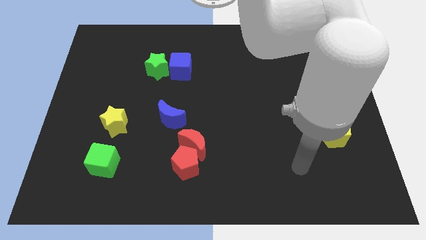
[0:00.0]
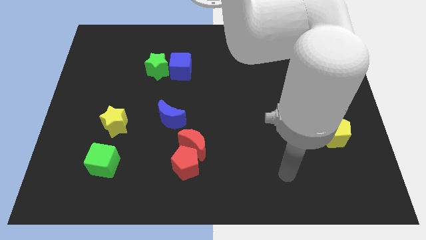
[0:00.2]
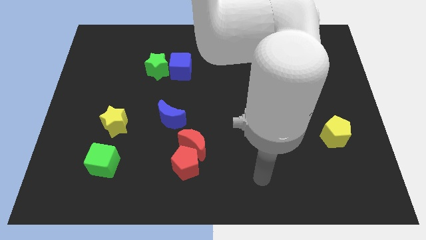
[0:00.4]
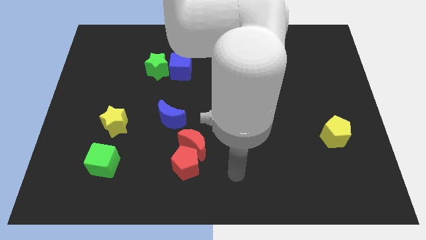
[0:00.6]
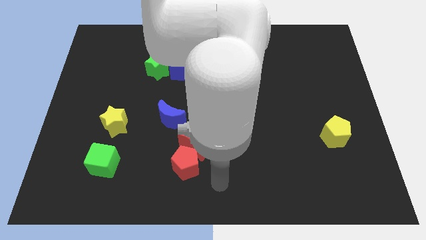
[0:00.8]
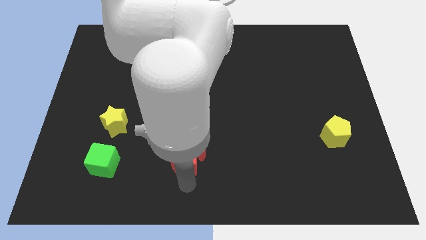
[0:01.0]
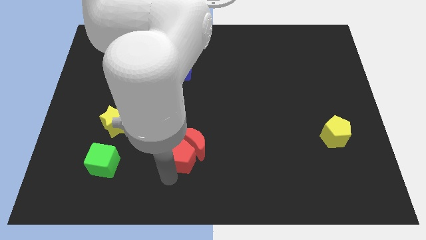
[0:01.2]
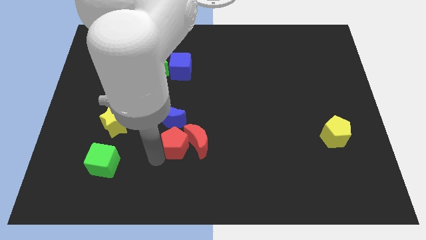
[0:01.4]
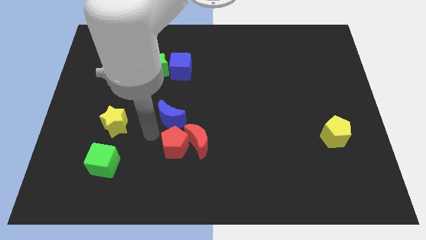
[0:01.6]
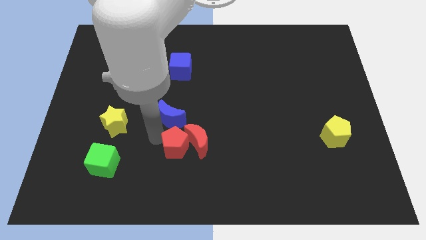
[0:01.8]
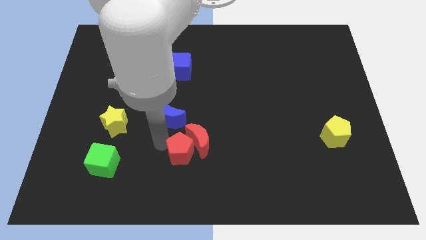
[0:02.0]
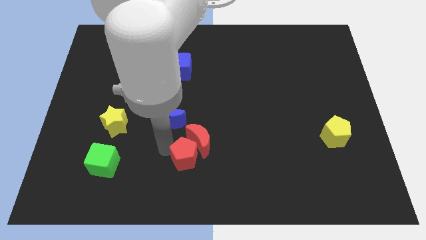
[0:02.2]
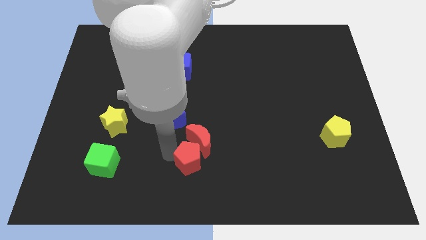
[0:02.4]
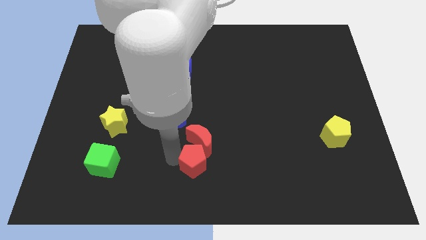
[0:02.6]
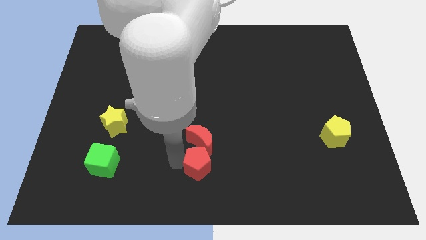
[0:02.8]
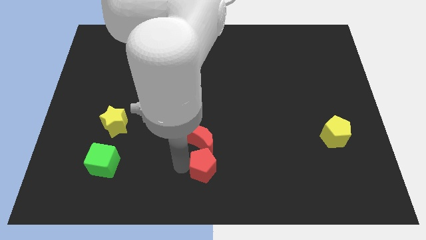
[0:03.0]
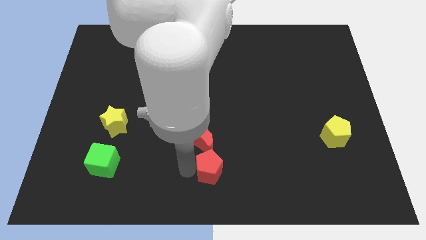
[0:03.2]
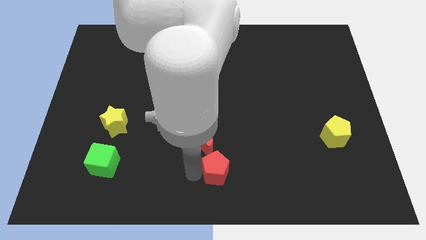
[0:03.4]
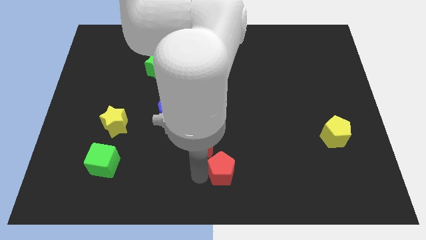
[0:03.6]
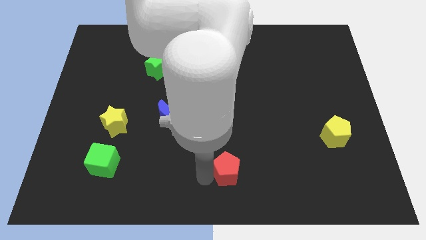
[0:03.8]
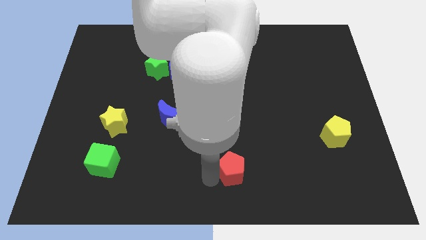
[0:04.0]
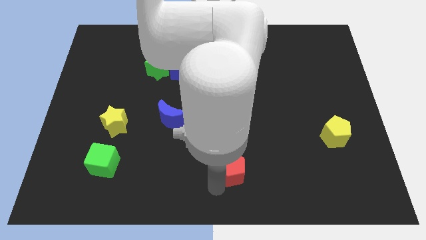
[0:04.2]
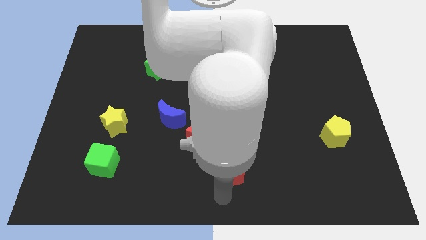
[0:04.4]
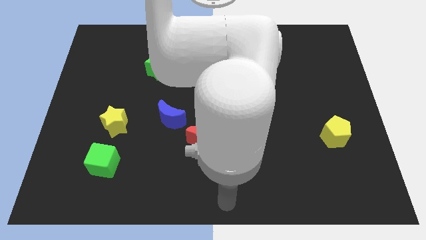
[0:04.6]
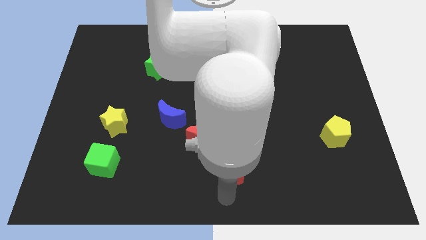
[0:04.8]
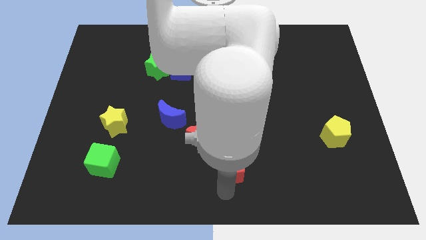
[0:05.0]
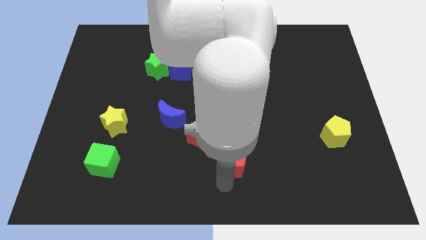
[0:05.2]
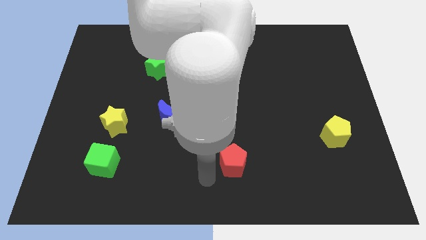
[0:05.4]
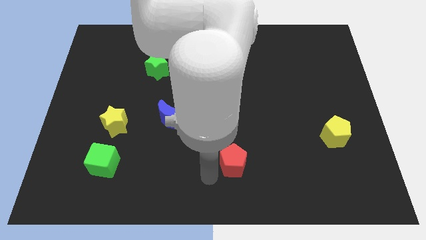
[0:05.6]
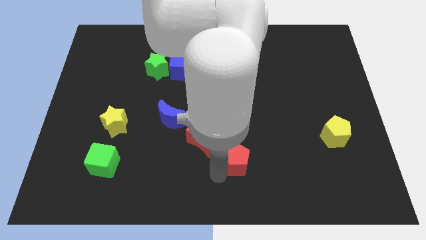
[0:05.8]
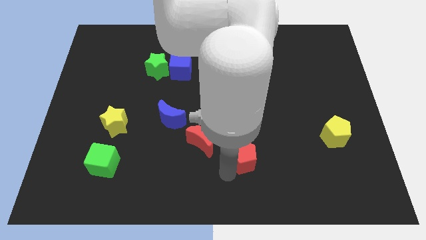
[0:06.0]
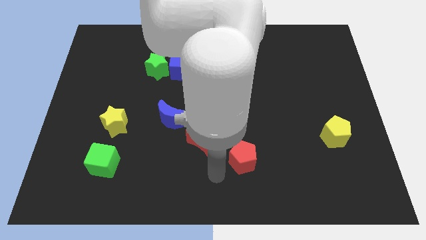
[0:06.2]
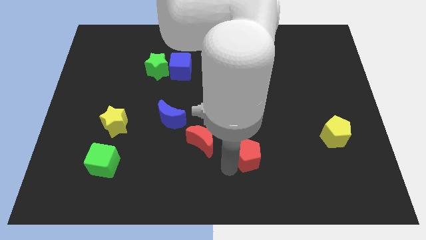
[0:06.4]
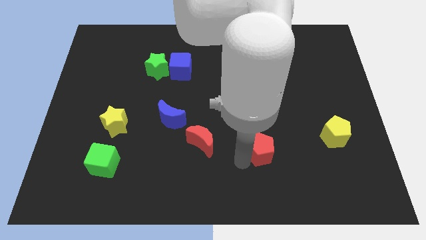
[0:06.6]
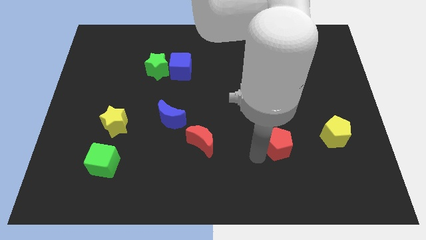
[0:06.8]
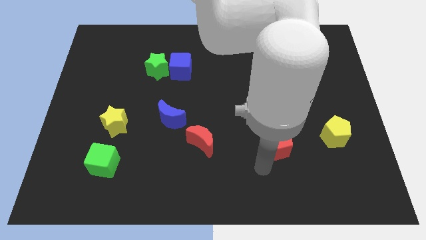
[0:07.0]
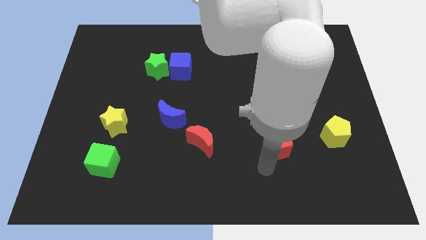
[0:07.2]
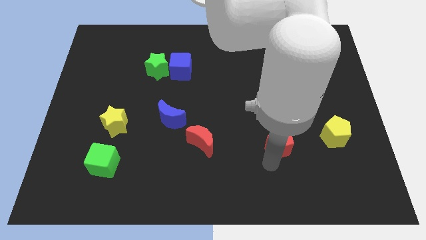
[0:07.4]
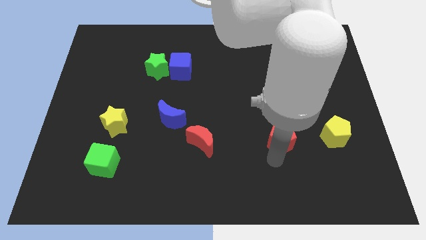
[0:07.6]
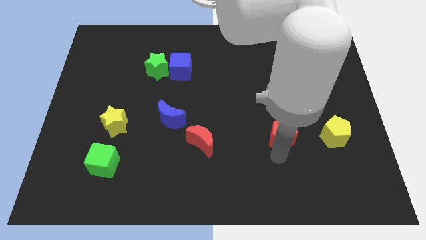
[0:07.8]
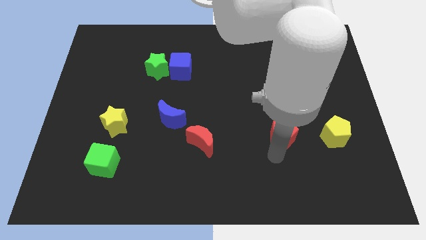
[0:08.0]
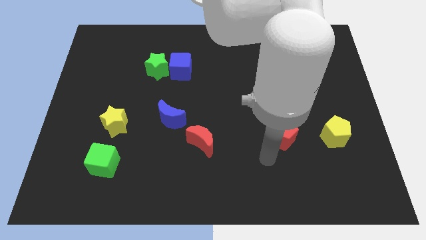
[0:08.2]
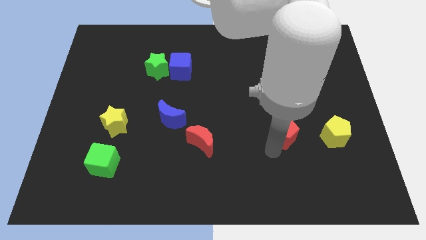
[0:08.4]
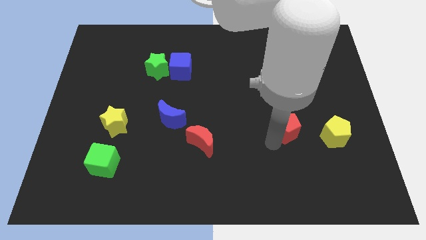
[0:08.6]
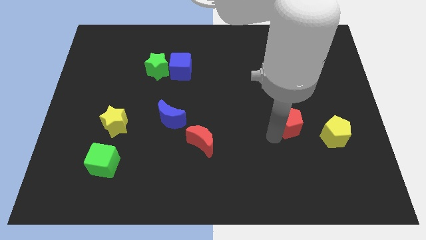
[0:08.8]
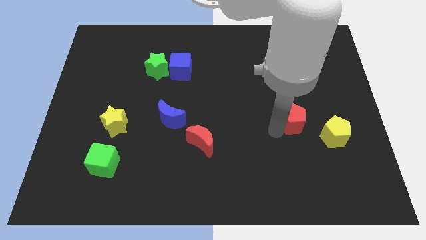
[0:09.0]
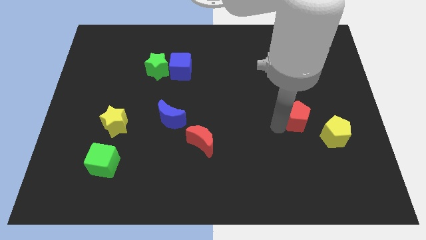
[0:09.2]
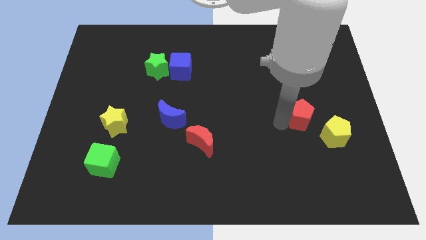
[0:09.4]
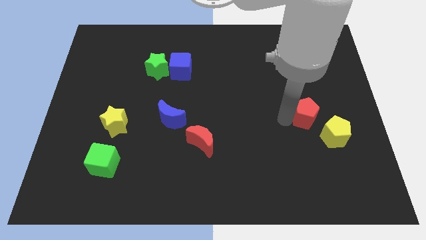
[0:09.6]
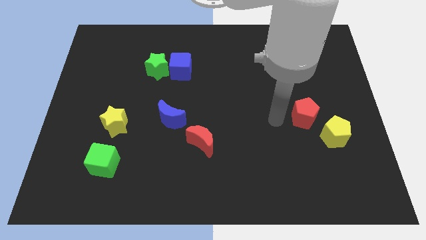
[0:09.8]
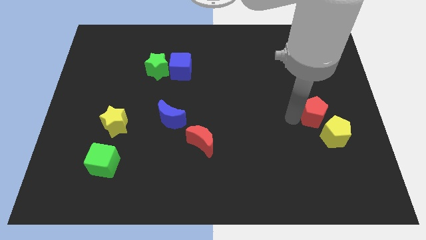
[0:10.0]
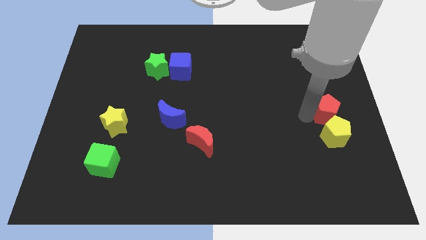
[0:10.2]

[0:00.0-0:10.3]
slide the red pentagon to the center right

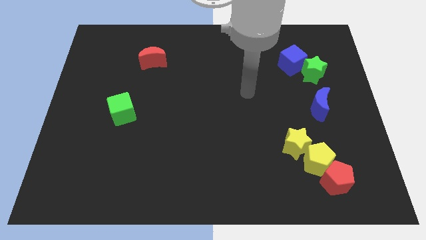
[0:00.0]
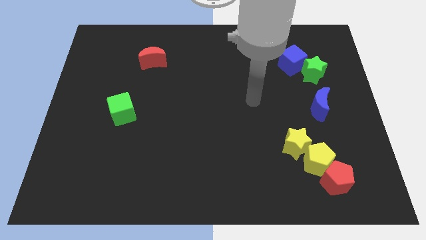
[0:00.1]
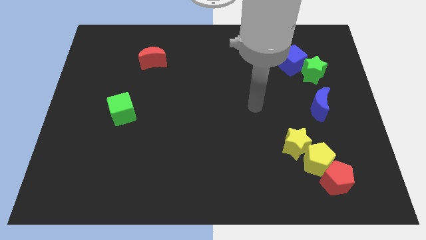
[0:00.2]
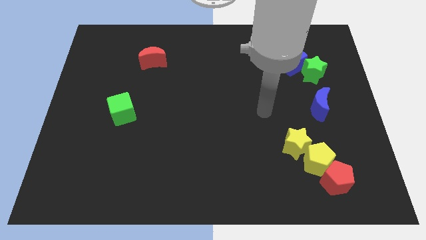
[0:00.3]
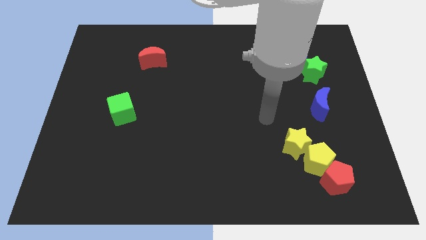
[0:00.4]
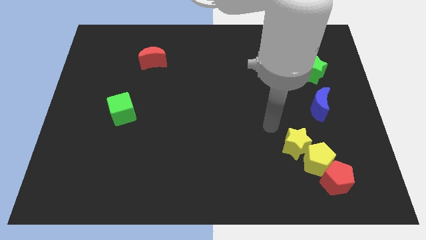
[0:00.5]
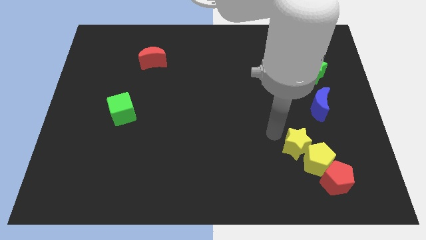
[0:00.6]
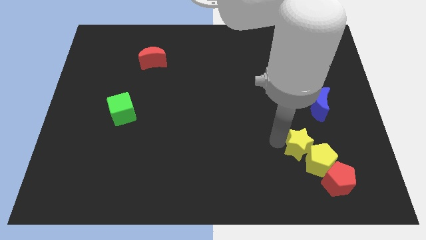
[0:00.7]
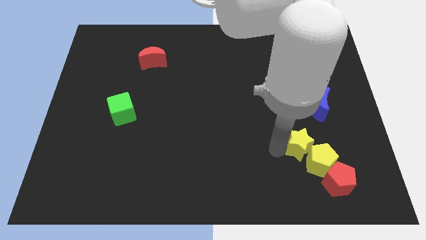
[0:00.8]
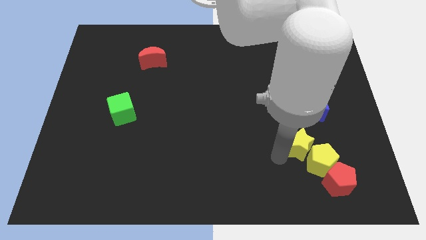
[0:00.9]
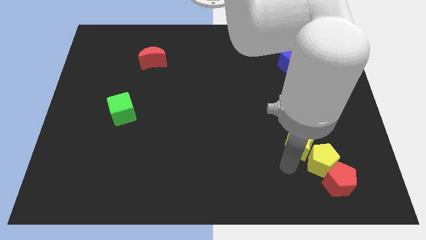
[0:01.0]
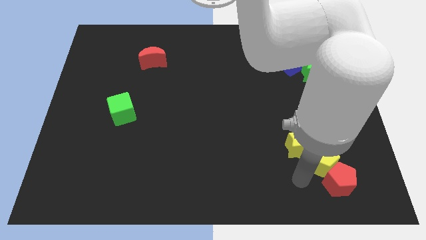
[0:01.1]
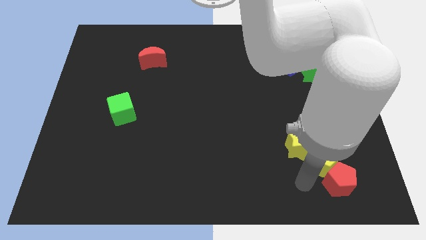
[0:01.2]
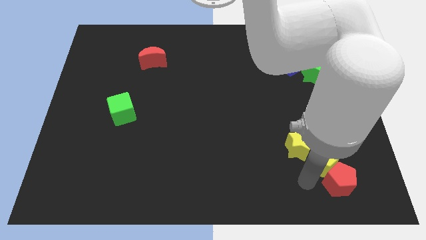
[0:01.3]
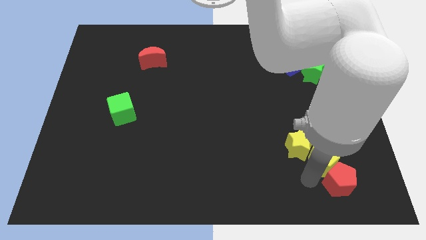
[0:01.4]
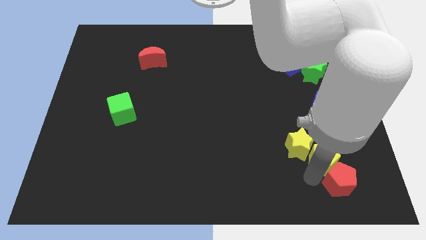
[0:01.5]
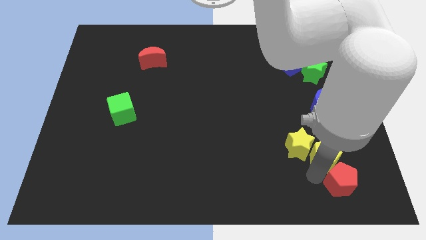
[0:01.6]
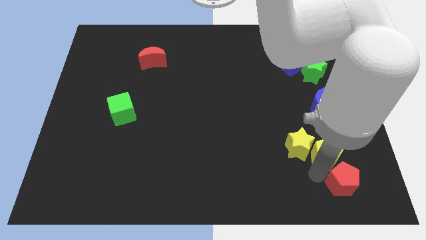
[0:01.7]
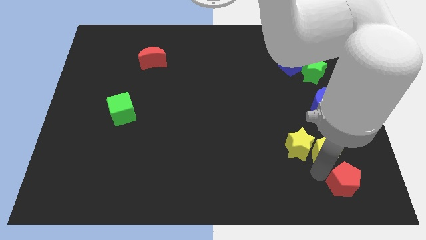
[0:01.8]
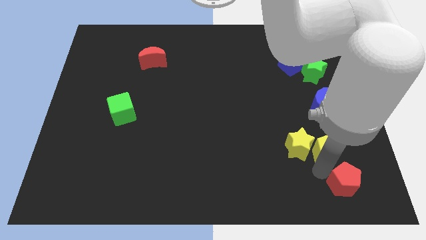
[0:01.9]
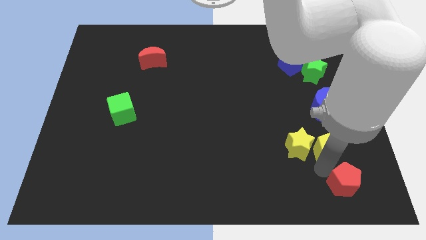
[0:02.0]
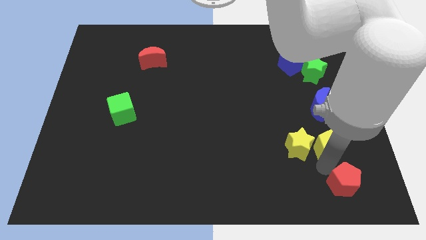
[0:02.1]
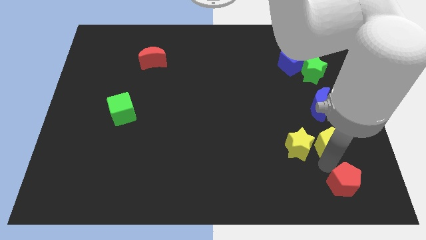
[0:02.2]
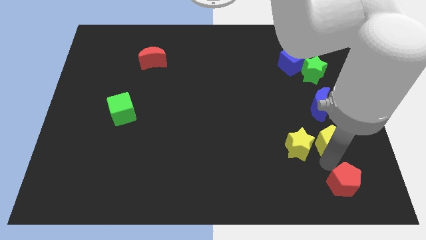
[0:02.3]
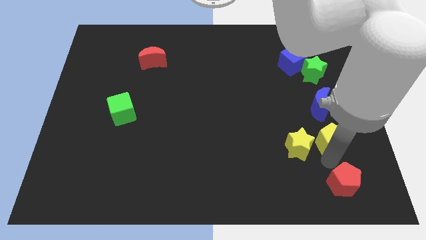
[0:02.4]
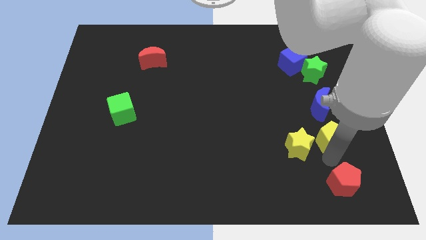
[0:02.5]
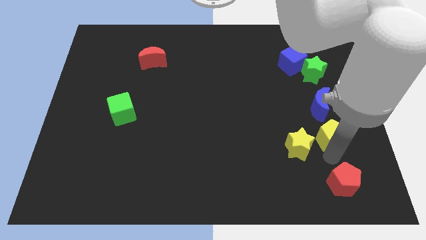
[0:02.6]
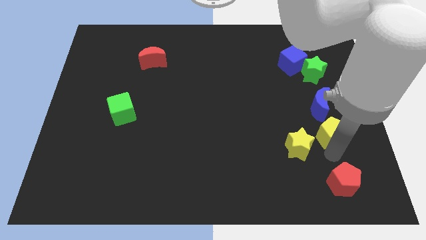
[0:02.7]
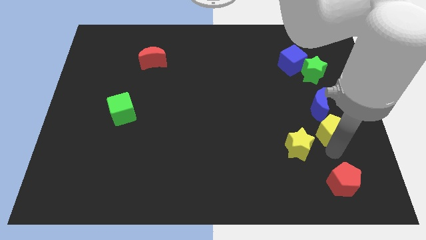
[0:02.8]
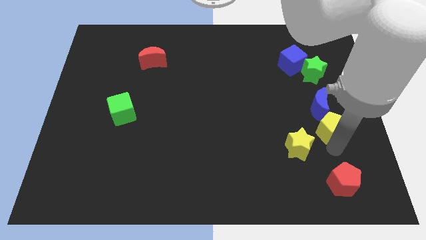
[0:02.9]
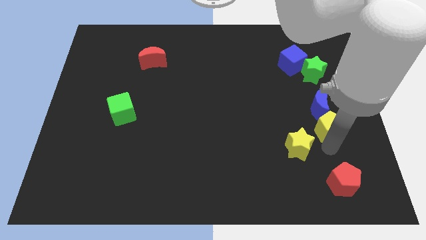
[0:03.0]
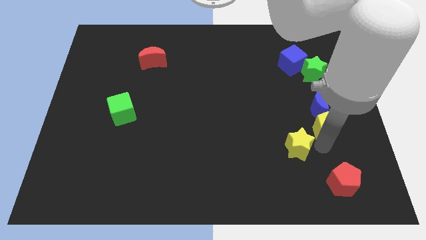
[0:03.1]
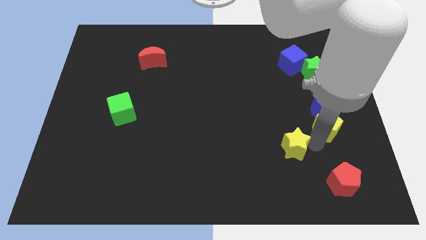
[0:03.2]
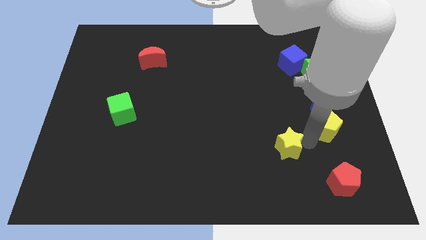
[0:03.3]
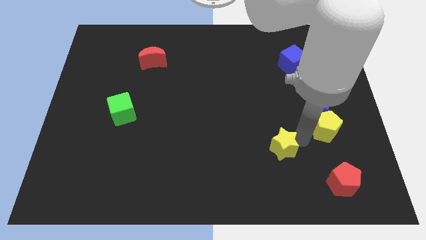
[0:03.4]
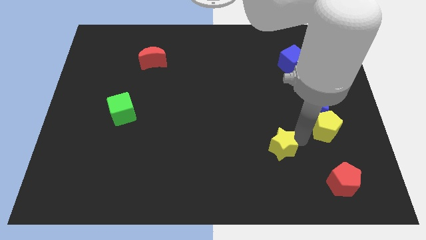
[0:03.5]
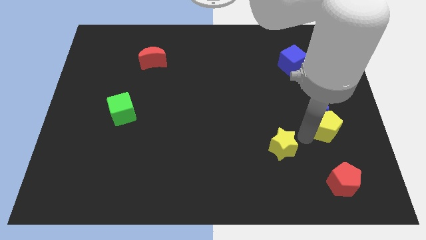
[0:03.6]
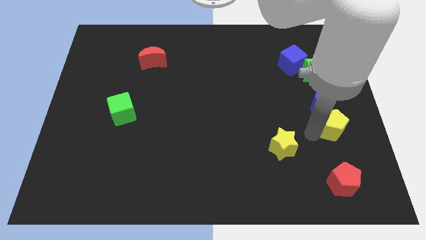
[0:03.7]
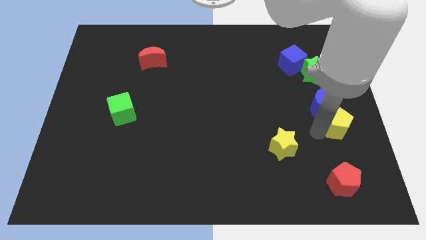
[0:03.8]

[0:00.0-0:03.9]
slide the yellow pentagon to the right side
